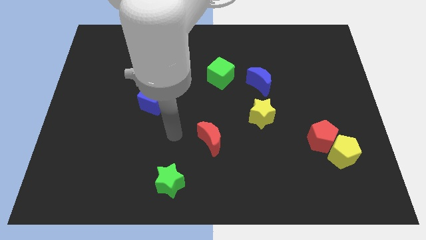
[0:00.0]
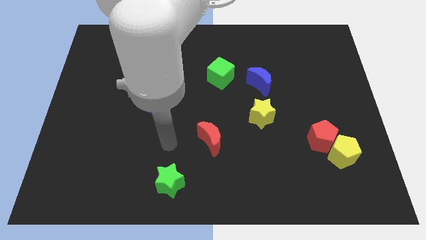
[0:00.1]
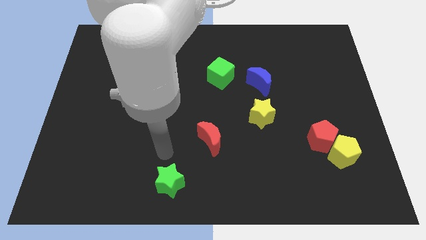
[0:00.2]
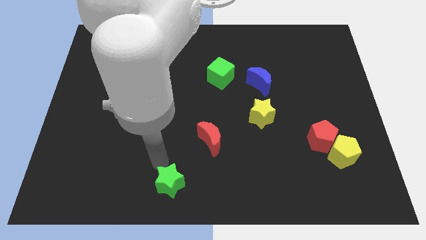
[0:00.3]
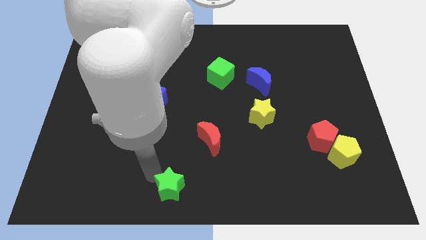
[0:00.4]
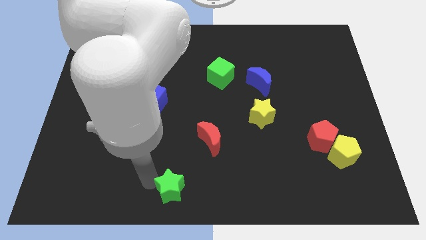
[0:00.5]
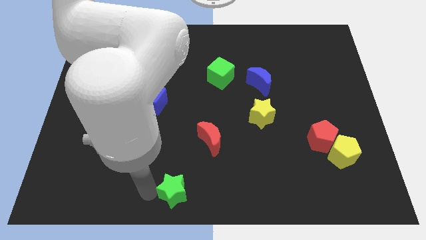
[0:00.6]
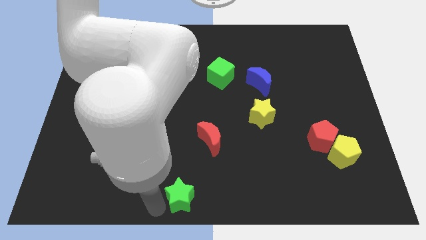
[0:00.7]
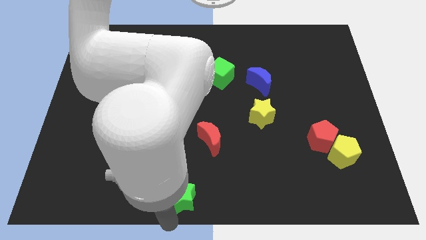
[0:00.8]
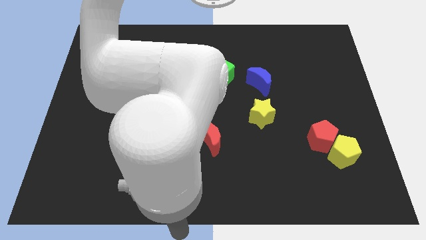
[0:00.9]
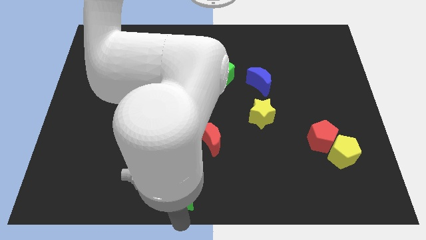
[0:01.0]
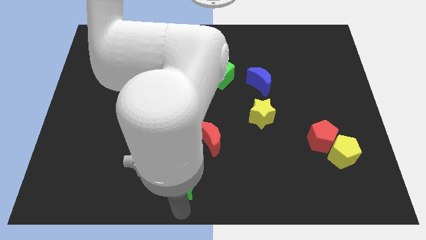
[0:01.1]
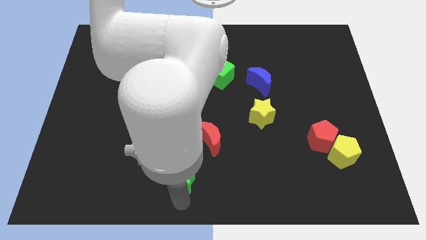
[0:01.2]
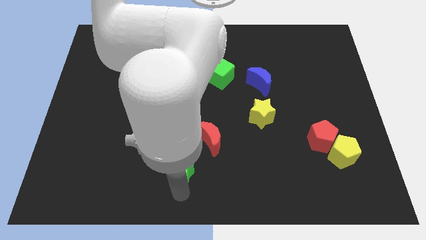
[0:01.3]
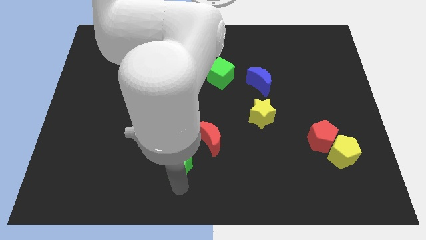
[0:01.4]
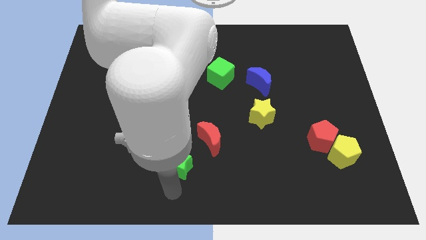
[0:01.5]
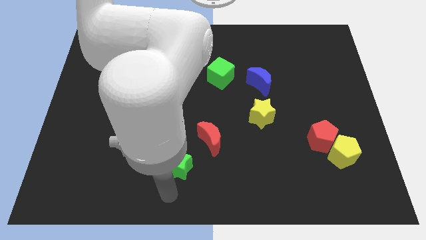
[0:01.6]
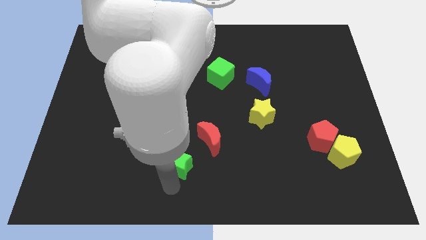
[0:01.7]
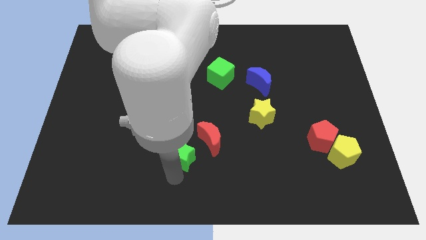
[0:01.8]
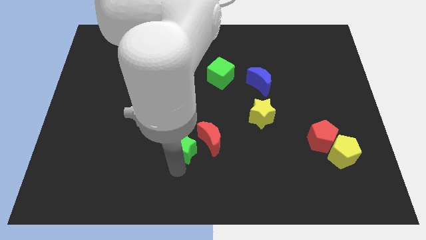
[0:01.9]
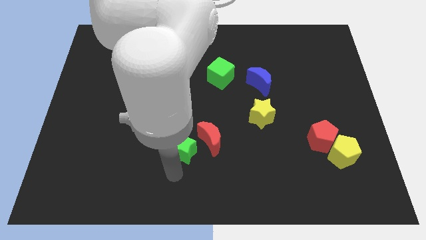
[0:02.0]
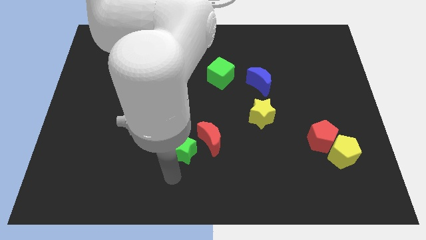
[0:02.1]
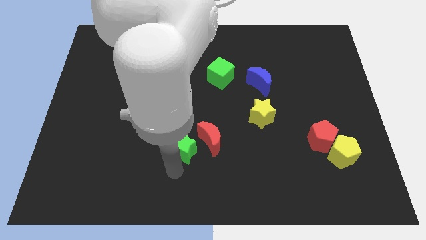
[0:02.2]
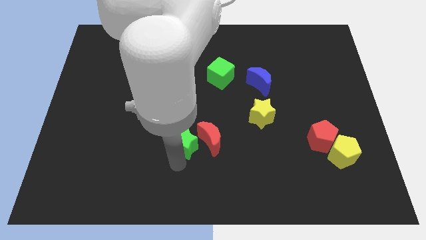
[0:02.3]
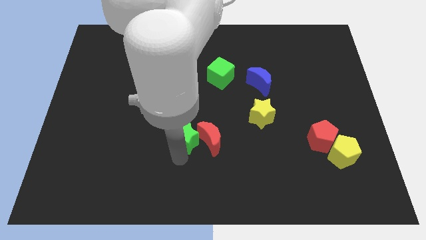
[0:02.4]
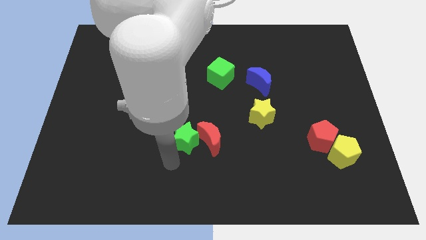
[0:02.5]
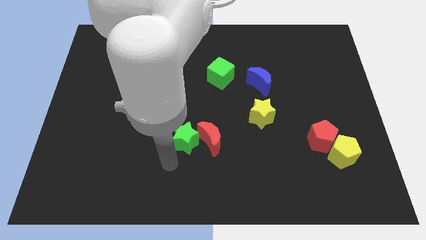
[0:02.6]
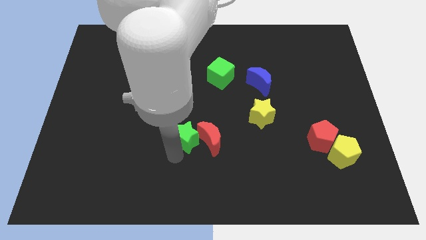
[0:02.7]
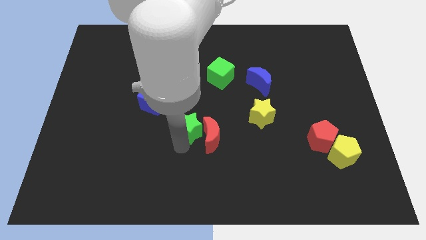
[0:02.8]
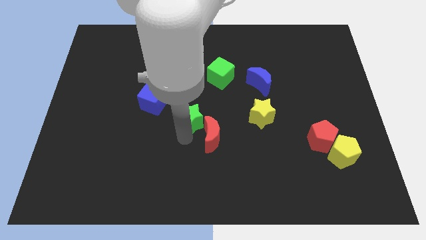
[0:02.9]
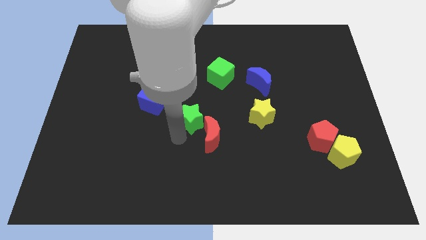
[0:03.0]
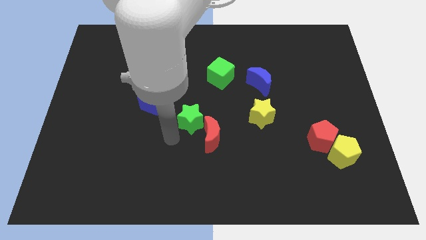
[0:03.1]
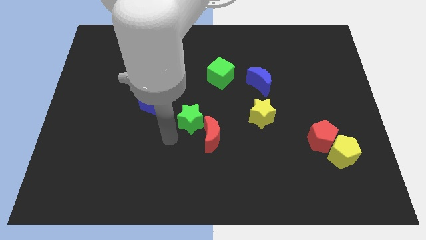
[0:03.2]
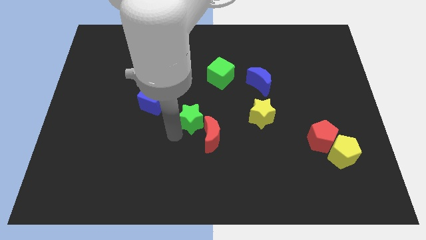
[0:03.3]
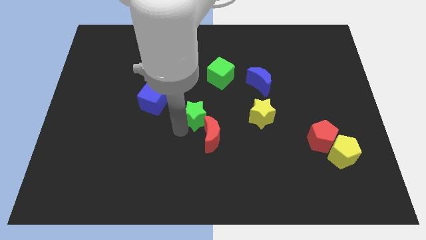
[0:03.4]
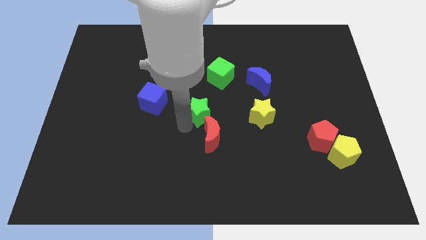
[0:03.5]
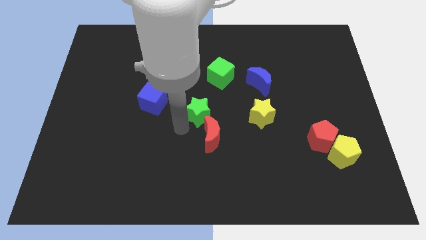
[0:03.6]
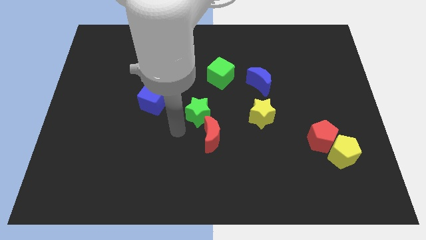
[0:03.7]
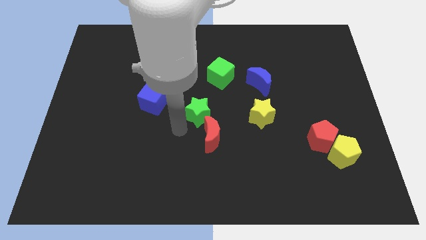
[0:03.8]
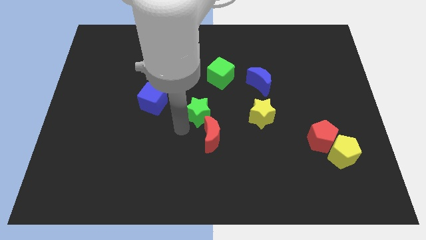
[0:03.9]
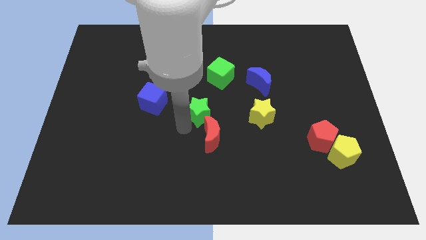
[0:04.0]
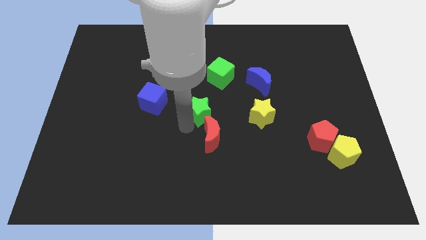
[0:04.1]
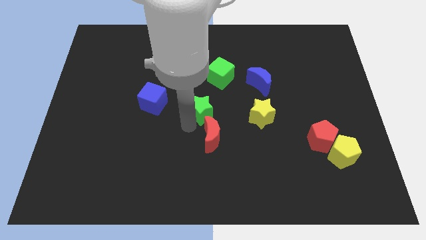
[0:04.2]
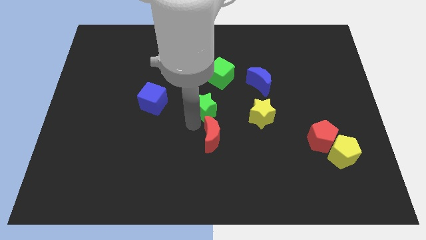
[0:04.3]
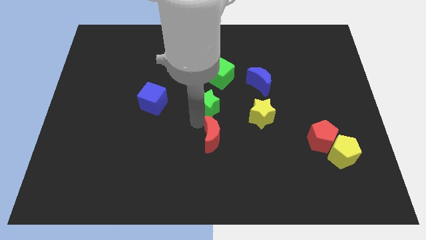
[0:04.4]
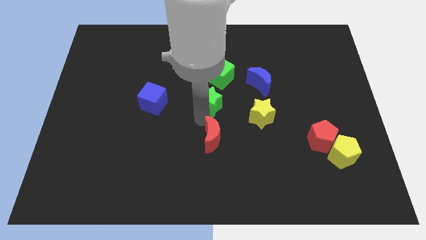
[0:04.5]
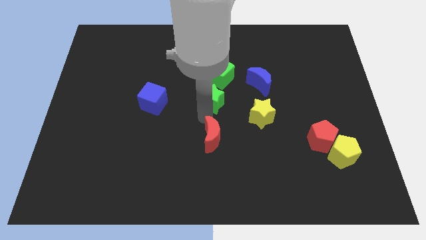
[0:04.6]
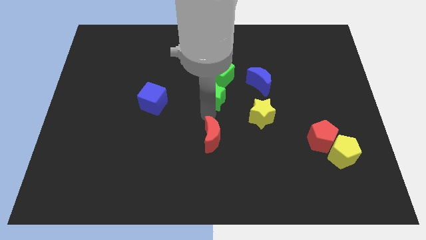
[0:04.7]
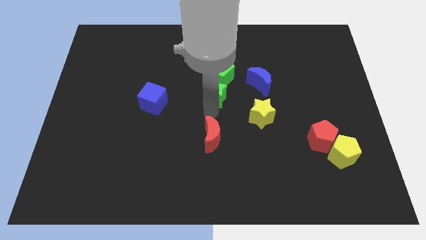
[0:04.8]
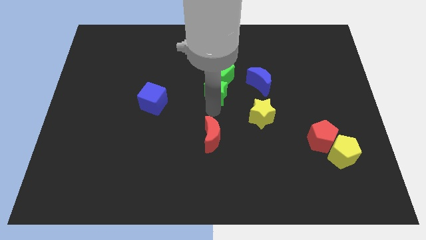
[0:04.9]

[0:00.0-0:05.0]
move the green star towards the green cube

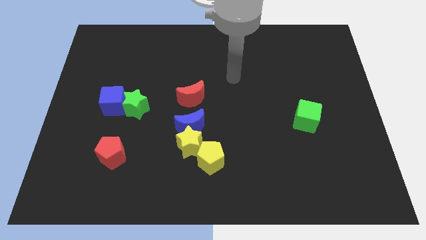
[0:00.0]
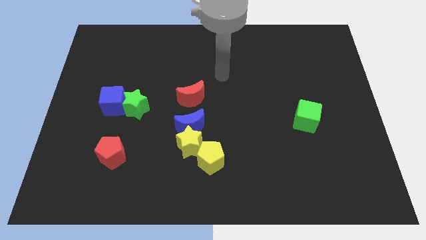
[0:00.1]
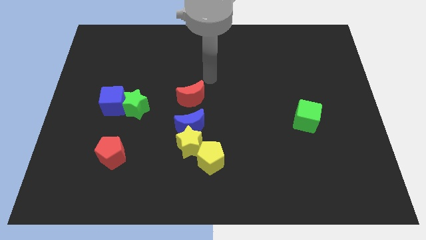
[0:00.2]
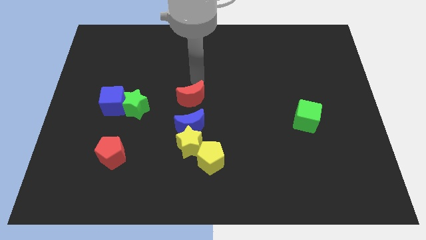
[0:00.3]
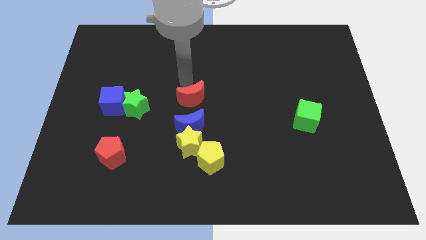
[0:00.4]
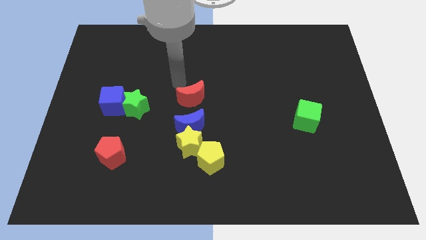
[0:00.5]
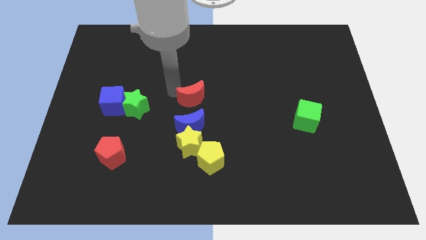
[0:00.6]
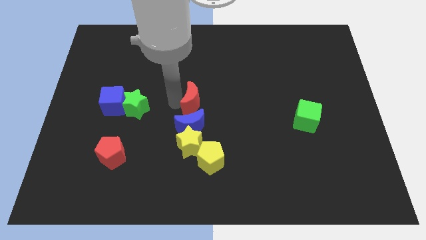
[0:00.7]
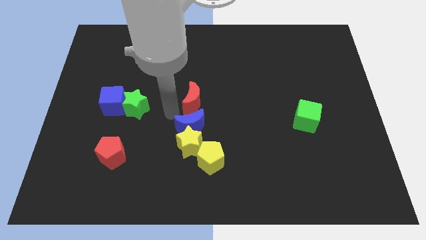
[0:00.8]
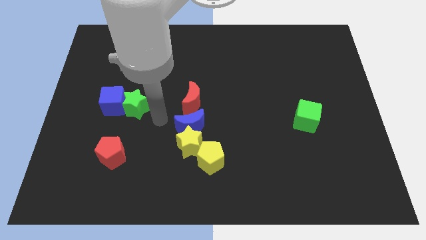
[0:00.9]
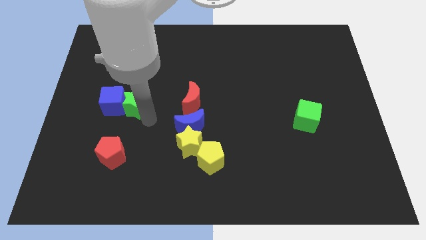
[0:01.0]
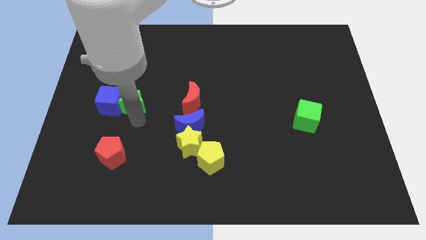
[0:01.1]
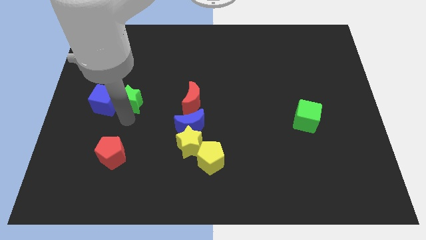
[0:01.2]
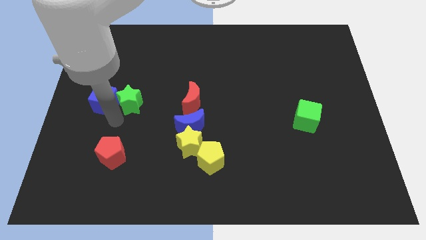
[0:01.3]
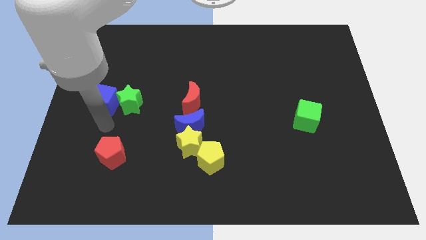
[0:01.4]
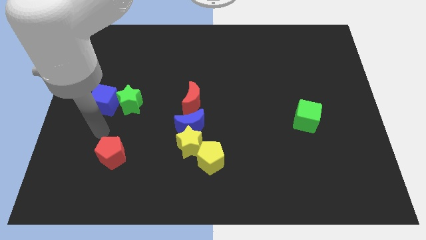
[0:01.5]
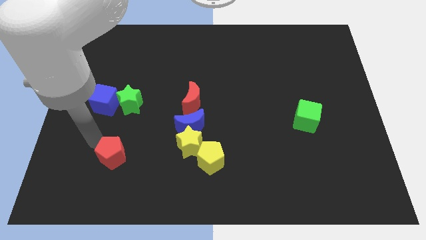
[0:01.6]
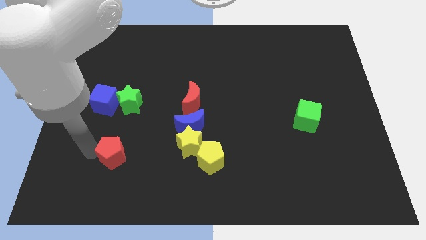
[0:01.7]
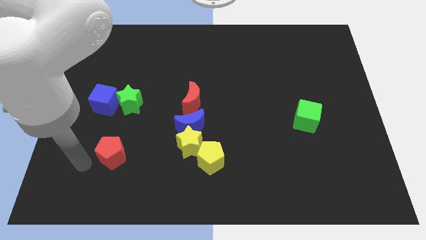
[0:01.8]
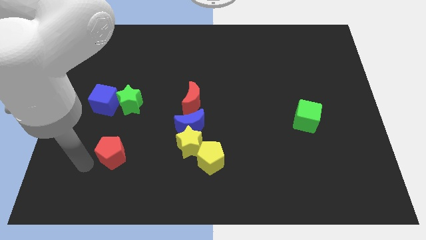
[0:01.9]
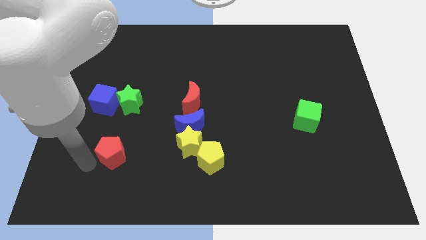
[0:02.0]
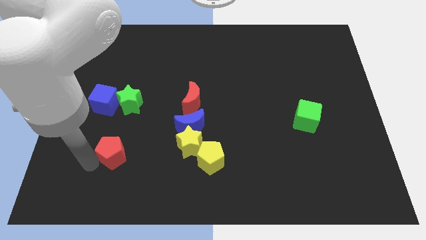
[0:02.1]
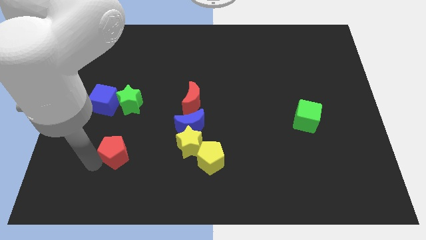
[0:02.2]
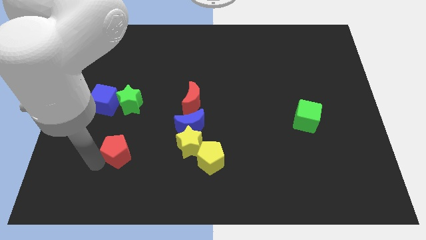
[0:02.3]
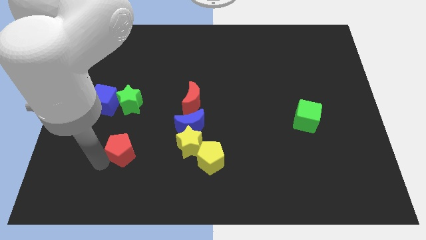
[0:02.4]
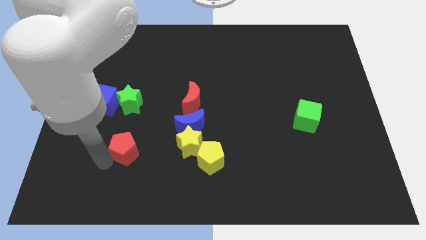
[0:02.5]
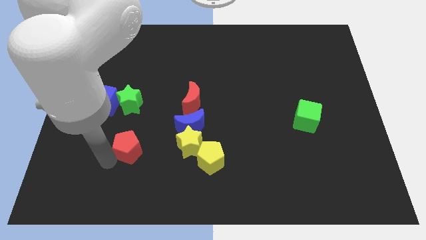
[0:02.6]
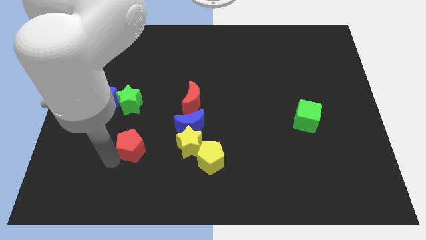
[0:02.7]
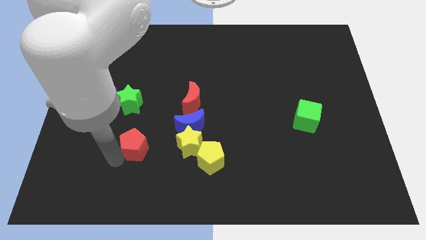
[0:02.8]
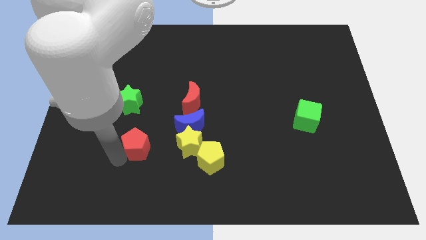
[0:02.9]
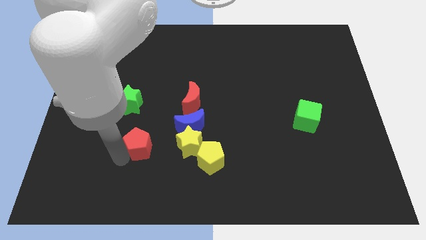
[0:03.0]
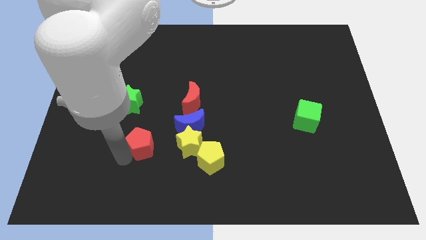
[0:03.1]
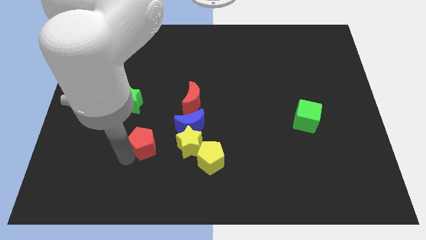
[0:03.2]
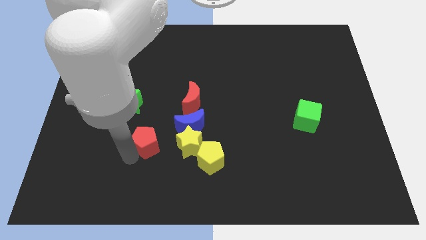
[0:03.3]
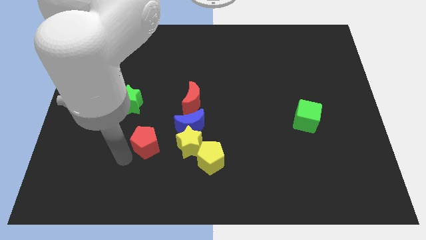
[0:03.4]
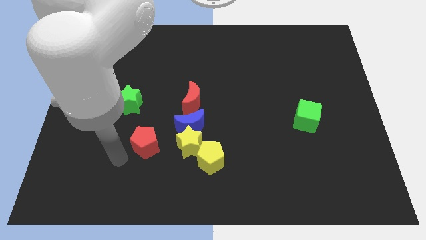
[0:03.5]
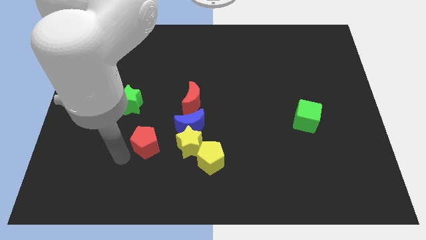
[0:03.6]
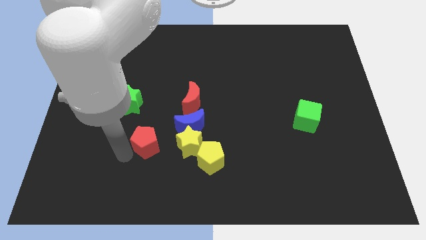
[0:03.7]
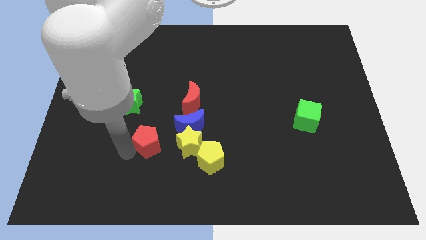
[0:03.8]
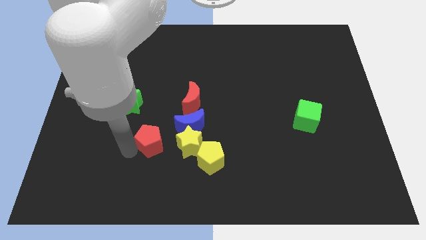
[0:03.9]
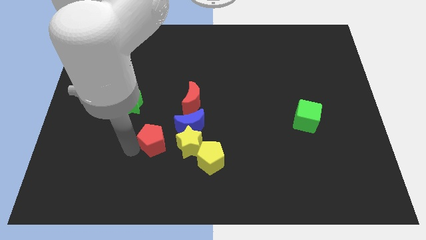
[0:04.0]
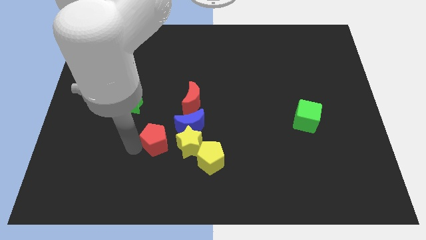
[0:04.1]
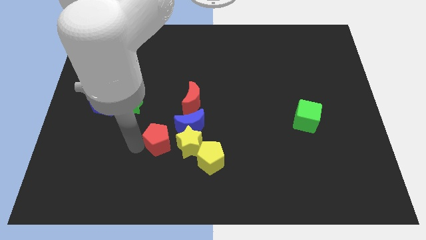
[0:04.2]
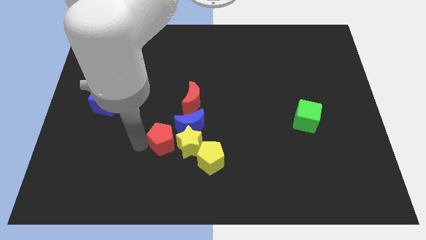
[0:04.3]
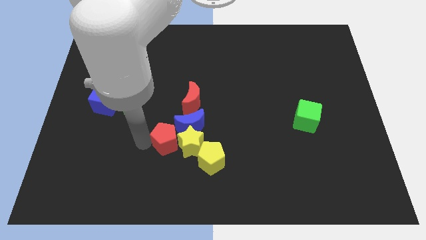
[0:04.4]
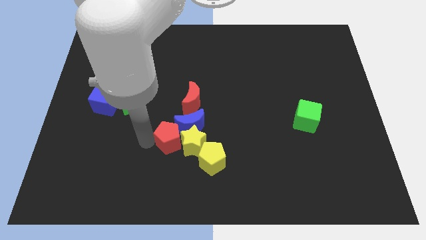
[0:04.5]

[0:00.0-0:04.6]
slide the red pentagon next to the blue moon
